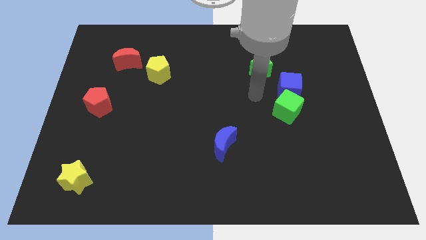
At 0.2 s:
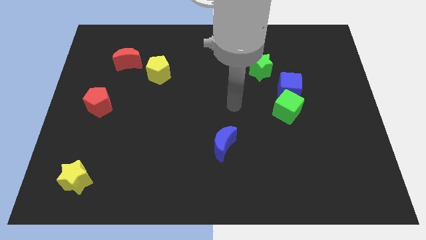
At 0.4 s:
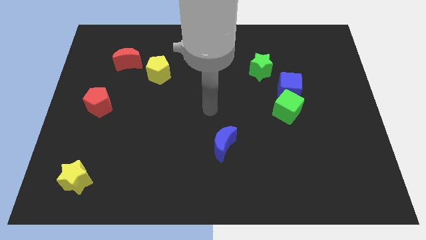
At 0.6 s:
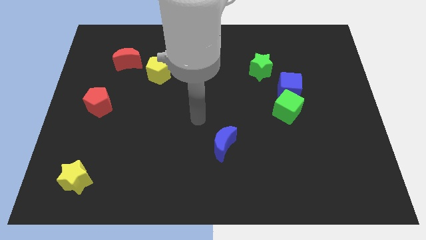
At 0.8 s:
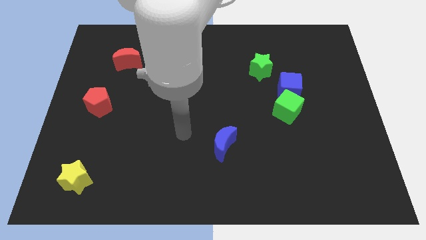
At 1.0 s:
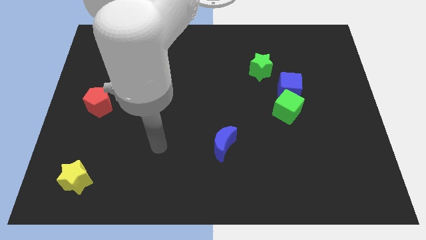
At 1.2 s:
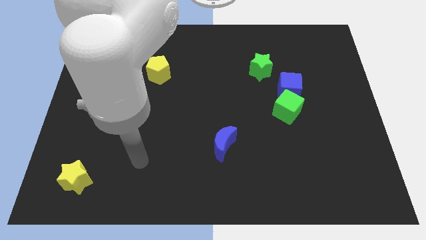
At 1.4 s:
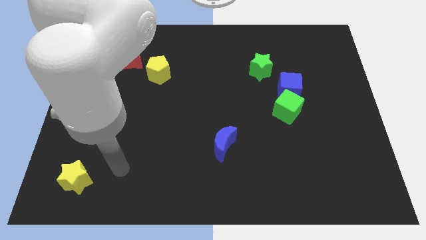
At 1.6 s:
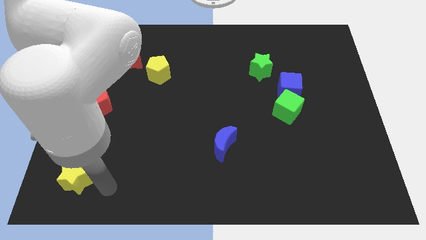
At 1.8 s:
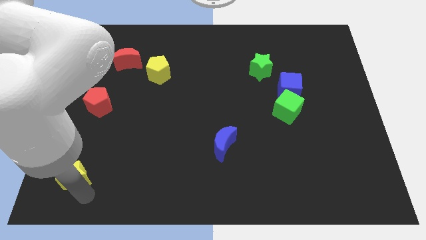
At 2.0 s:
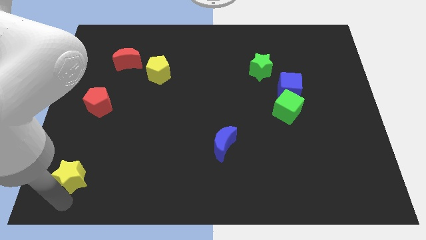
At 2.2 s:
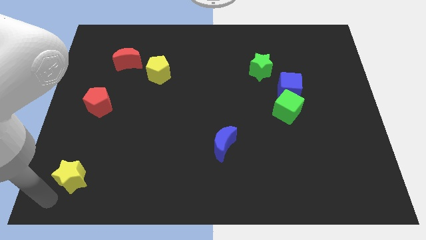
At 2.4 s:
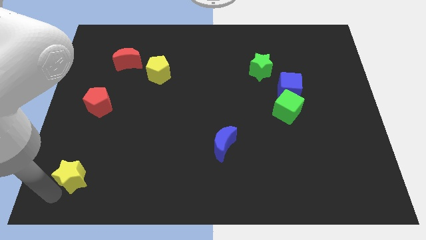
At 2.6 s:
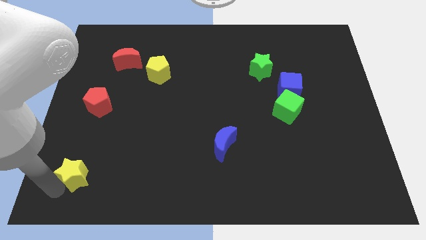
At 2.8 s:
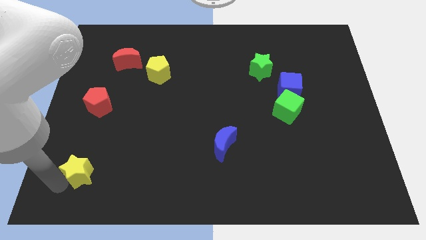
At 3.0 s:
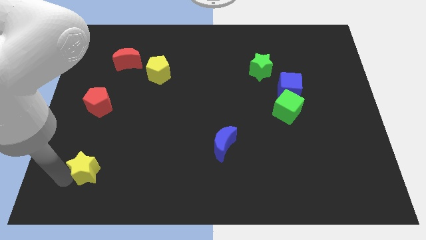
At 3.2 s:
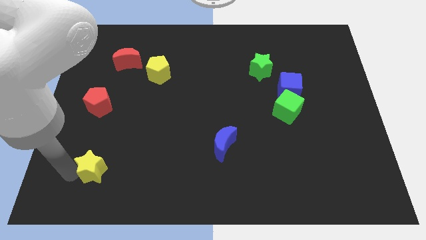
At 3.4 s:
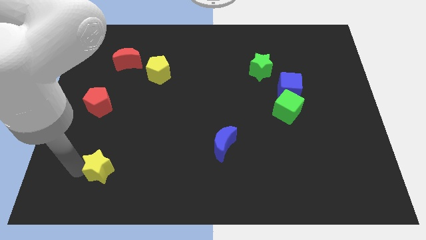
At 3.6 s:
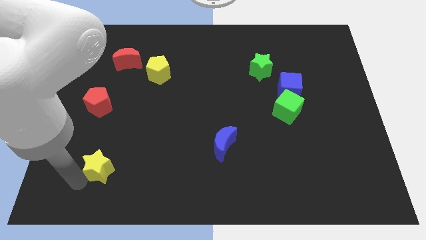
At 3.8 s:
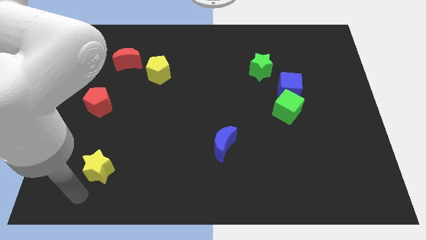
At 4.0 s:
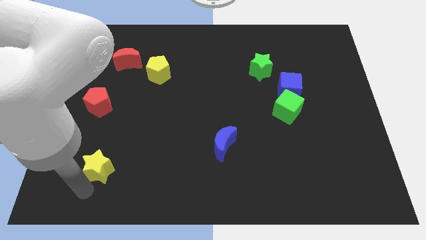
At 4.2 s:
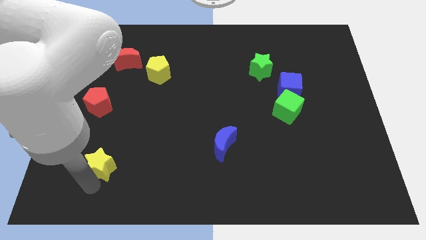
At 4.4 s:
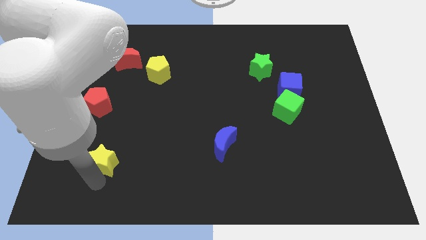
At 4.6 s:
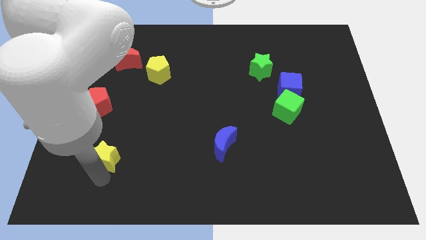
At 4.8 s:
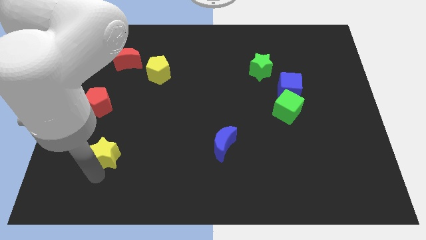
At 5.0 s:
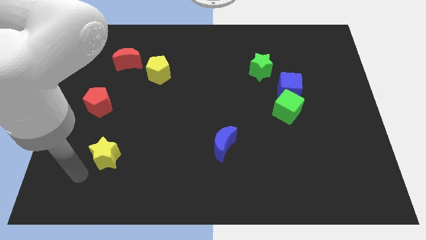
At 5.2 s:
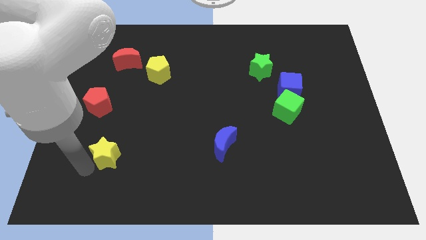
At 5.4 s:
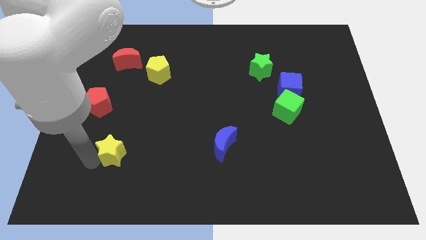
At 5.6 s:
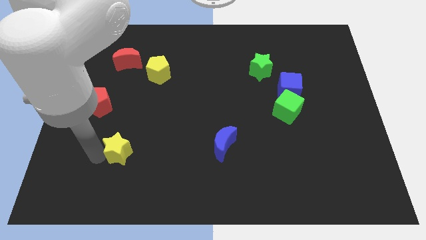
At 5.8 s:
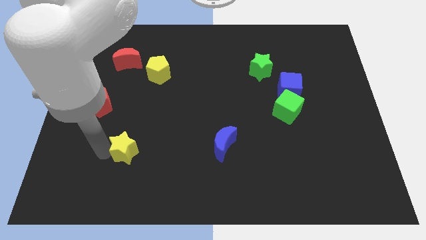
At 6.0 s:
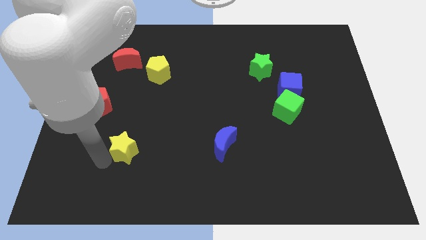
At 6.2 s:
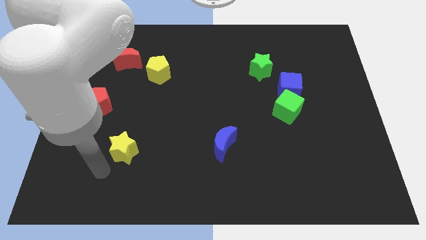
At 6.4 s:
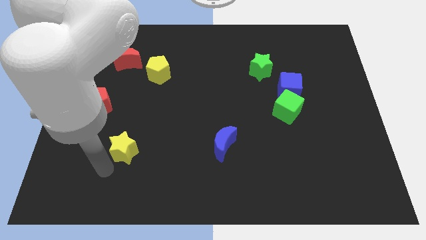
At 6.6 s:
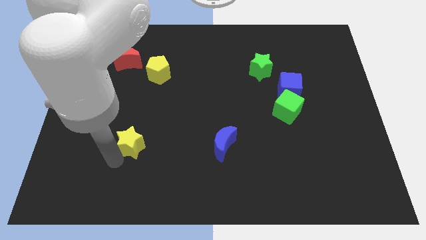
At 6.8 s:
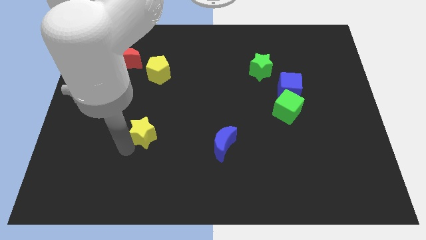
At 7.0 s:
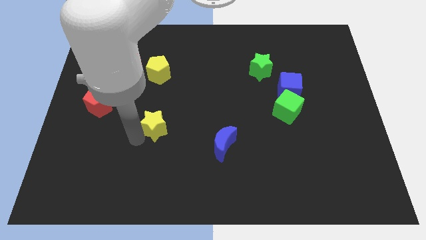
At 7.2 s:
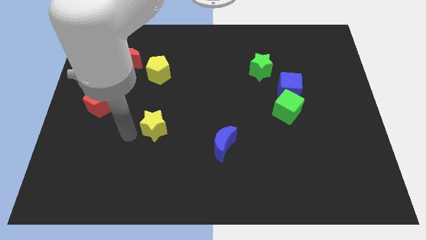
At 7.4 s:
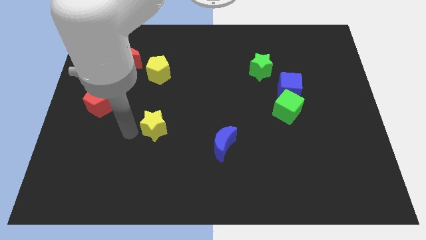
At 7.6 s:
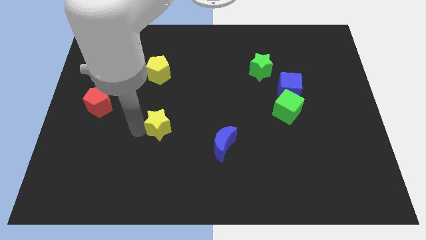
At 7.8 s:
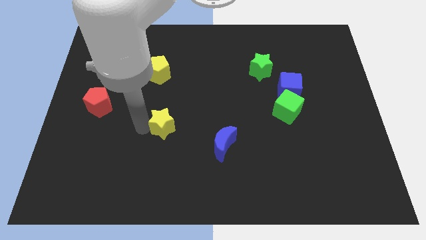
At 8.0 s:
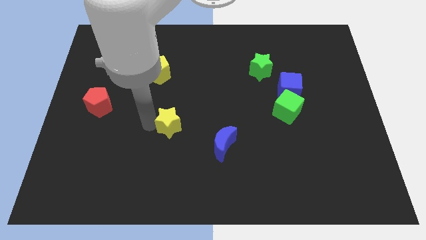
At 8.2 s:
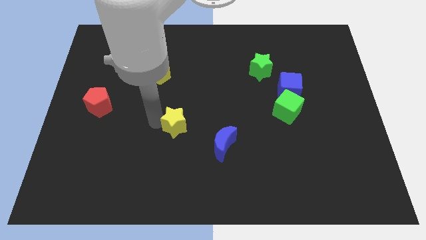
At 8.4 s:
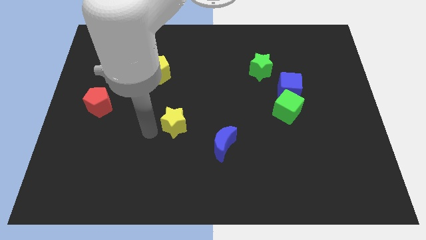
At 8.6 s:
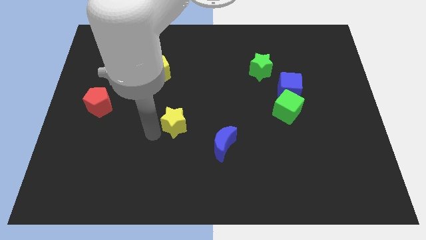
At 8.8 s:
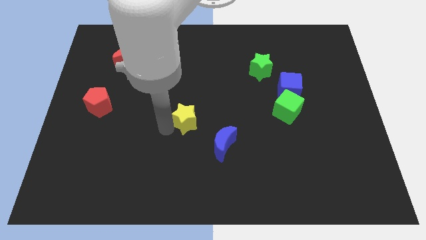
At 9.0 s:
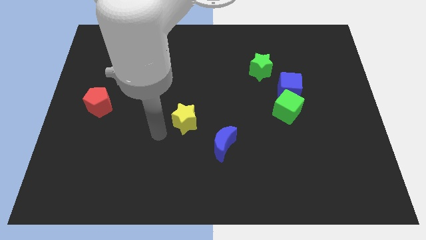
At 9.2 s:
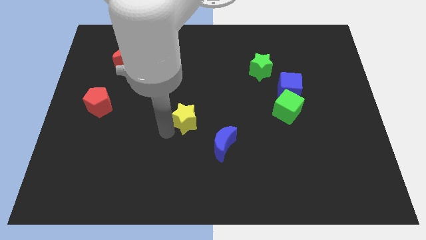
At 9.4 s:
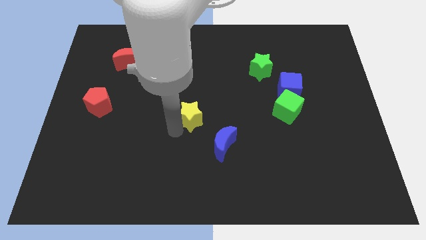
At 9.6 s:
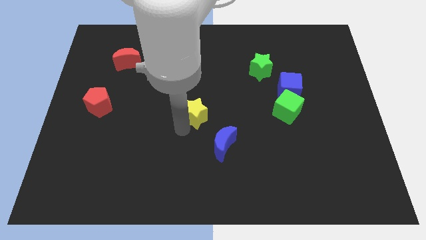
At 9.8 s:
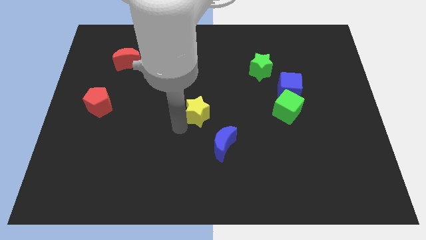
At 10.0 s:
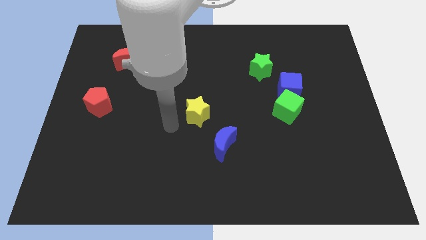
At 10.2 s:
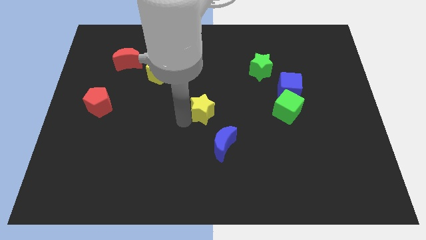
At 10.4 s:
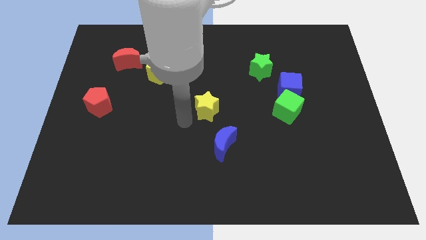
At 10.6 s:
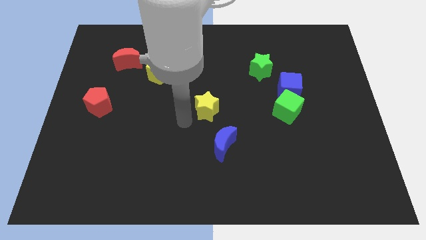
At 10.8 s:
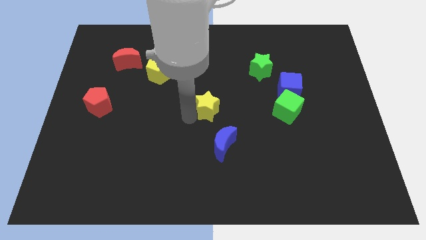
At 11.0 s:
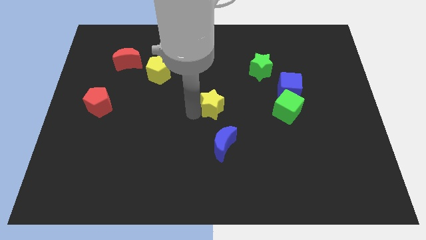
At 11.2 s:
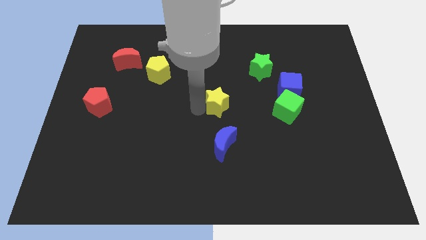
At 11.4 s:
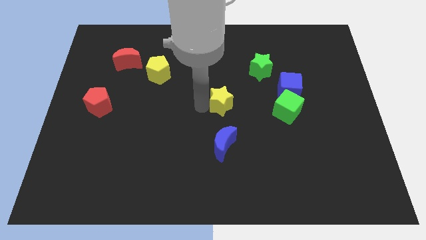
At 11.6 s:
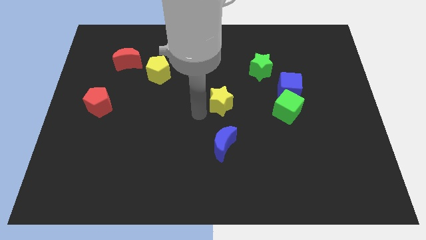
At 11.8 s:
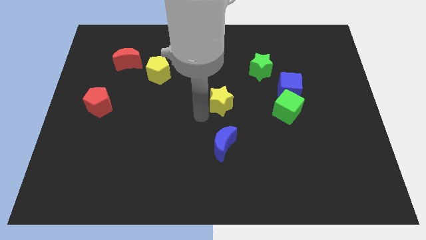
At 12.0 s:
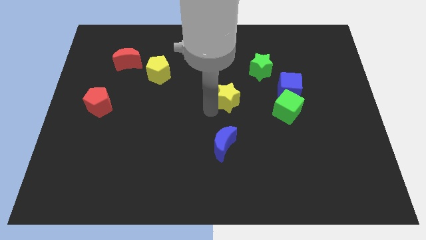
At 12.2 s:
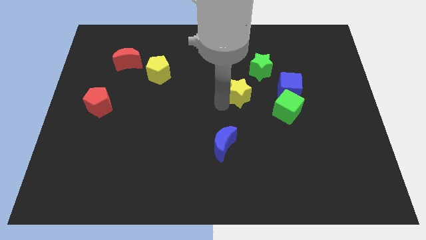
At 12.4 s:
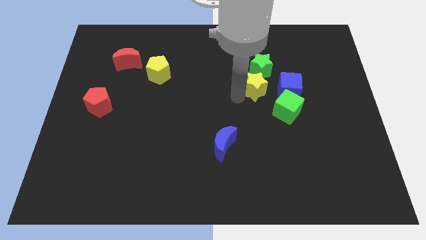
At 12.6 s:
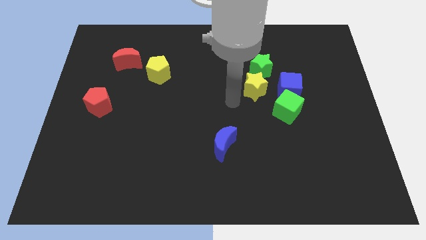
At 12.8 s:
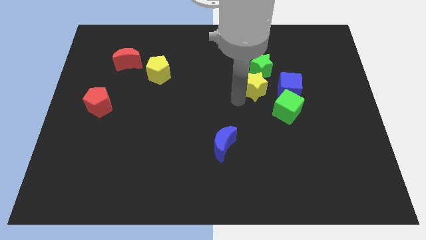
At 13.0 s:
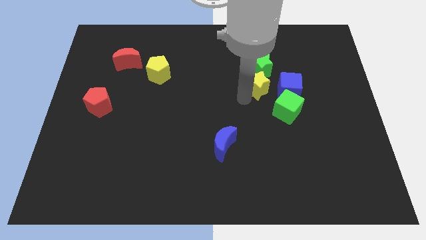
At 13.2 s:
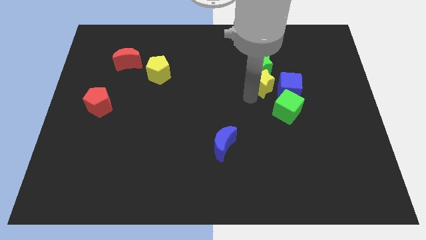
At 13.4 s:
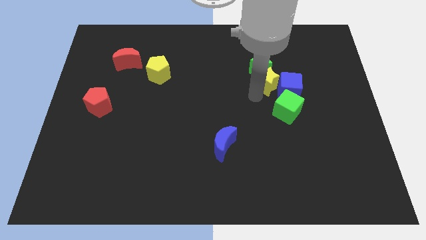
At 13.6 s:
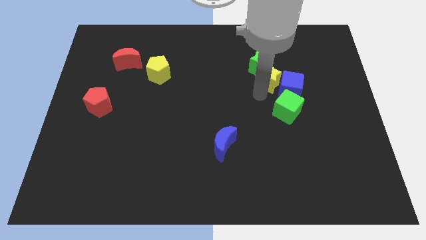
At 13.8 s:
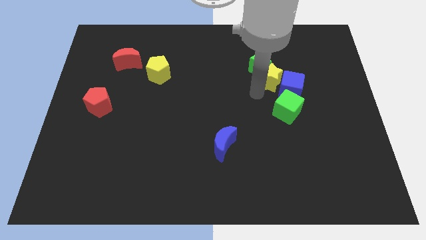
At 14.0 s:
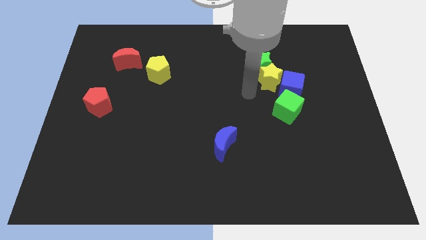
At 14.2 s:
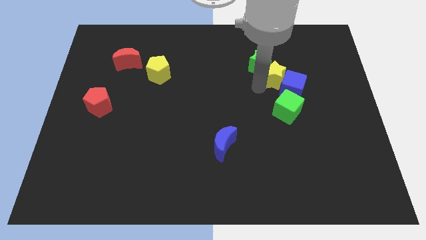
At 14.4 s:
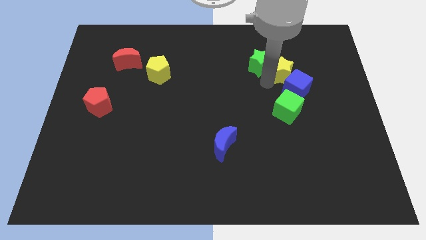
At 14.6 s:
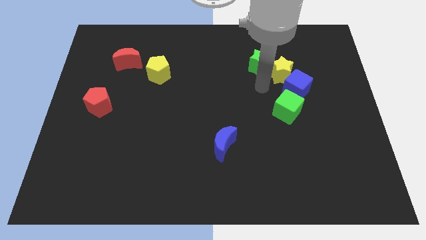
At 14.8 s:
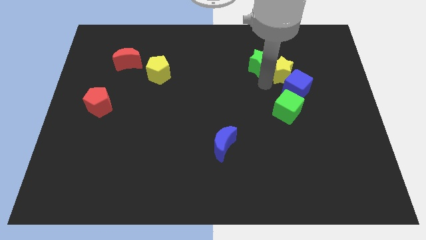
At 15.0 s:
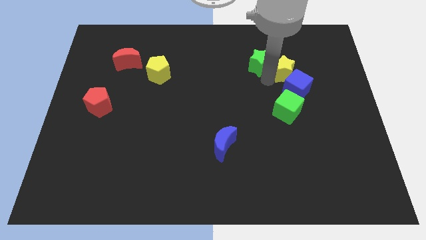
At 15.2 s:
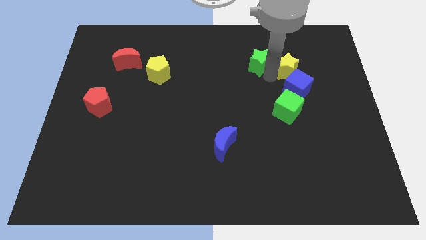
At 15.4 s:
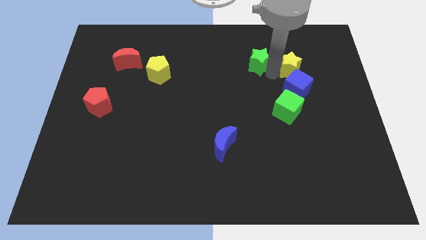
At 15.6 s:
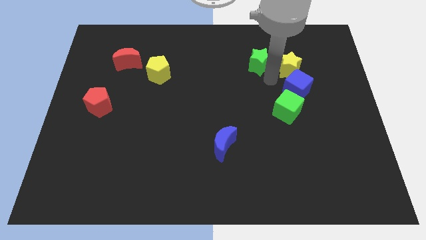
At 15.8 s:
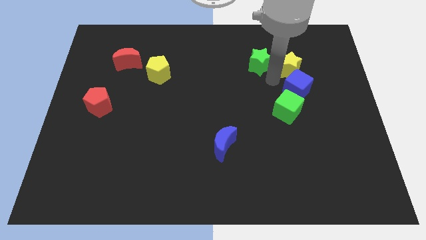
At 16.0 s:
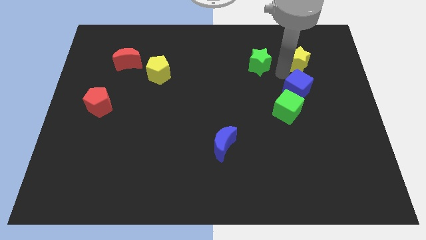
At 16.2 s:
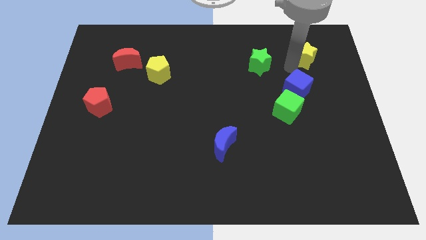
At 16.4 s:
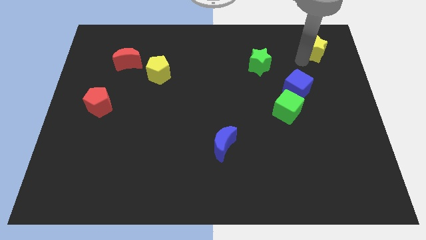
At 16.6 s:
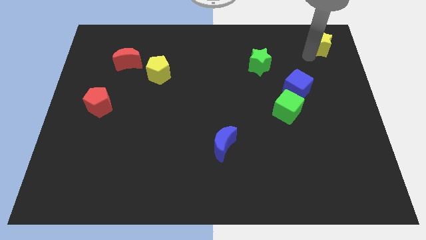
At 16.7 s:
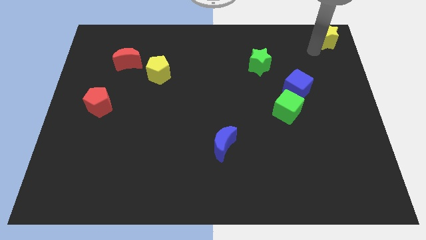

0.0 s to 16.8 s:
push the yellow star to the upper right corner
